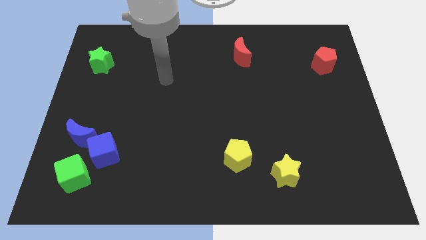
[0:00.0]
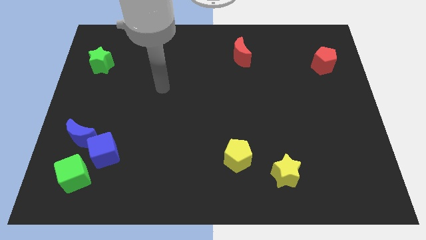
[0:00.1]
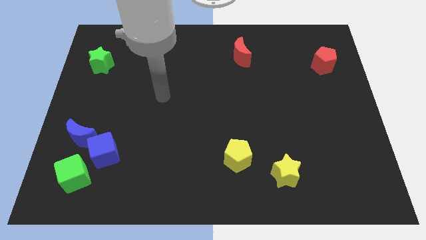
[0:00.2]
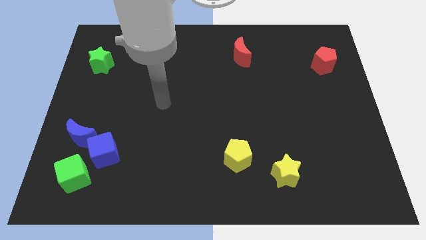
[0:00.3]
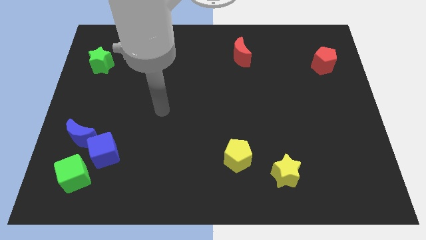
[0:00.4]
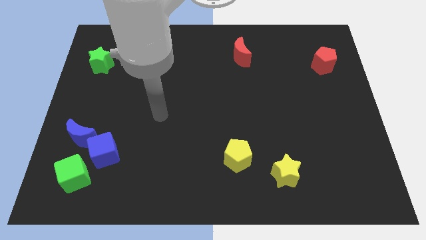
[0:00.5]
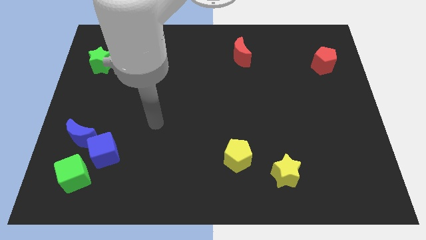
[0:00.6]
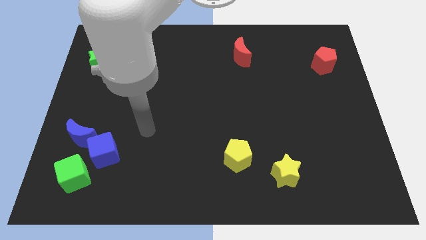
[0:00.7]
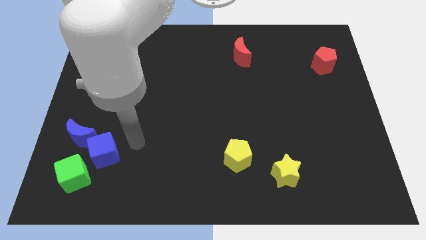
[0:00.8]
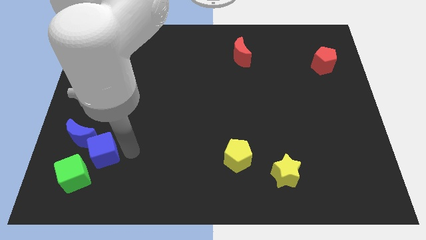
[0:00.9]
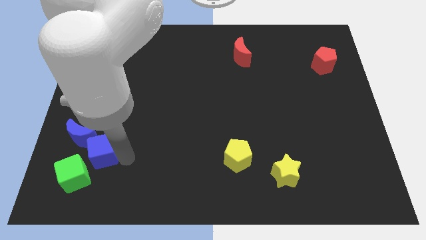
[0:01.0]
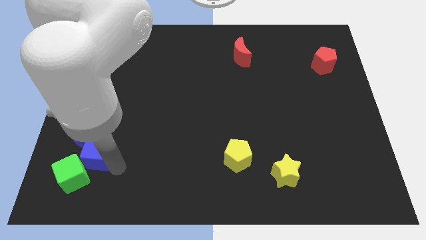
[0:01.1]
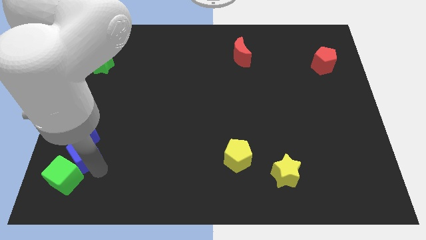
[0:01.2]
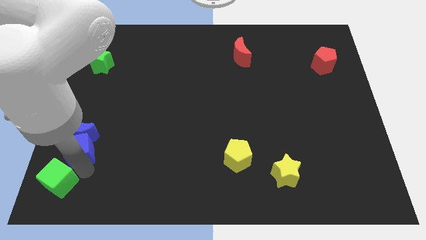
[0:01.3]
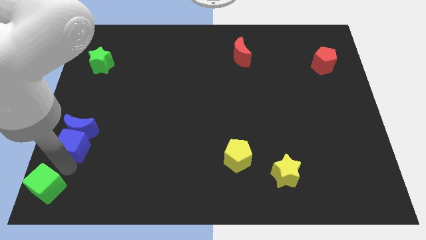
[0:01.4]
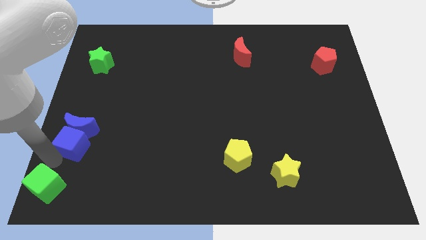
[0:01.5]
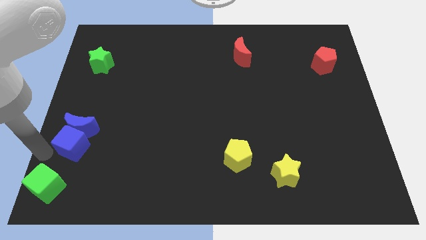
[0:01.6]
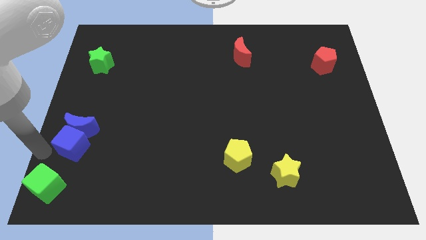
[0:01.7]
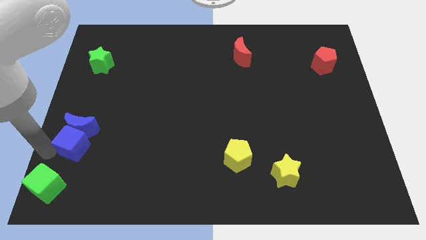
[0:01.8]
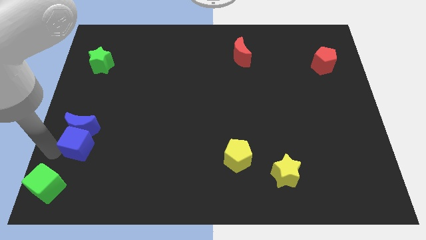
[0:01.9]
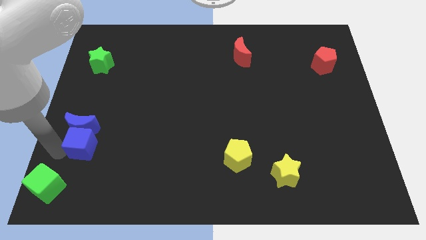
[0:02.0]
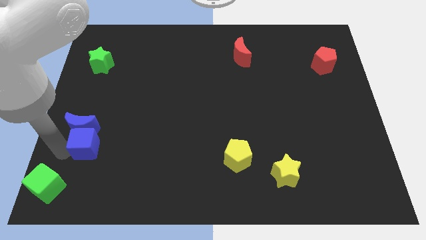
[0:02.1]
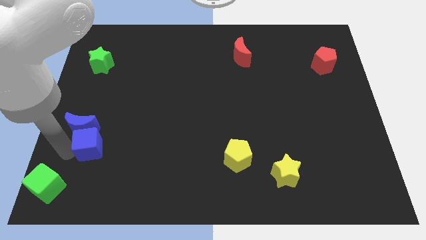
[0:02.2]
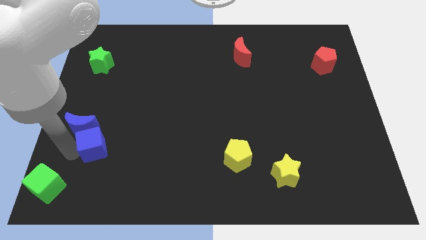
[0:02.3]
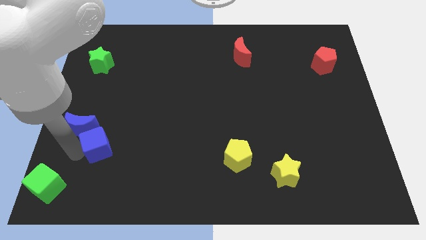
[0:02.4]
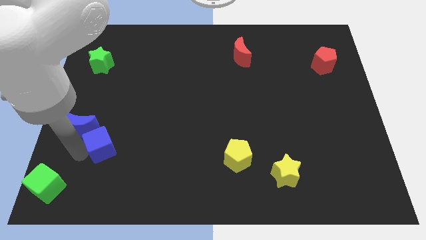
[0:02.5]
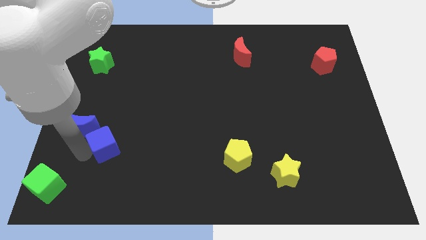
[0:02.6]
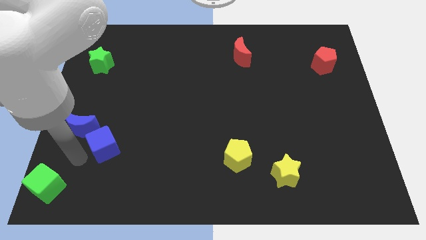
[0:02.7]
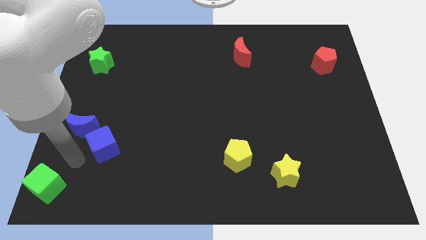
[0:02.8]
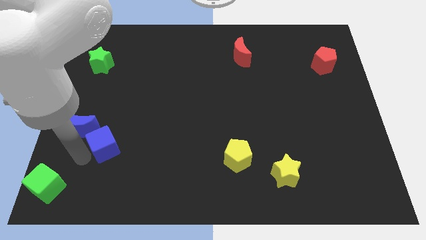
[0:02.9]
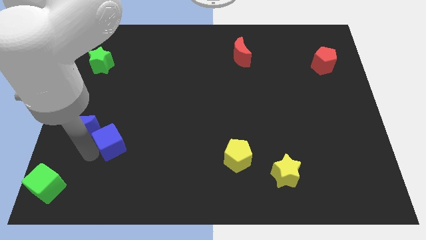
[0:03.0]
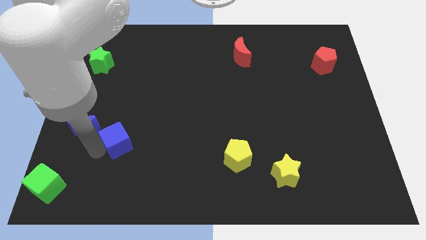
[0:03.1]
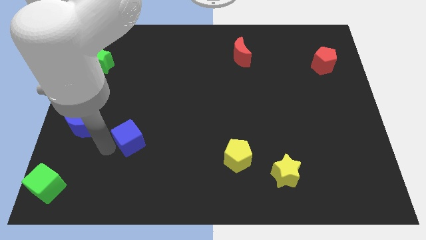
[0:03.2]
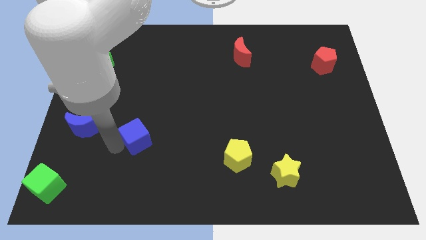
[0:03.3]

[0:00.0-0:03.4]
slide the blue cube diagonally up and right a little

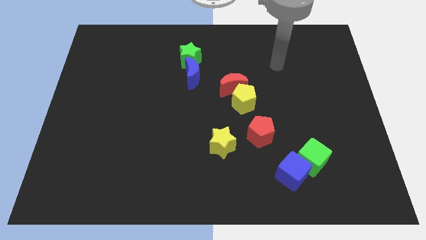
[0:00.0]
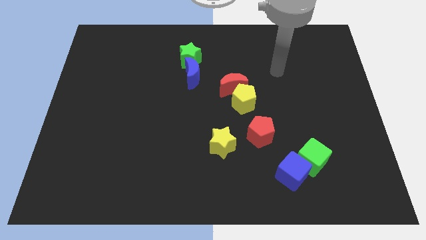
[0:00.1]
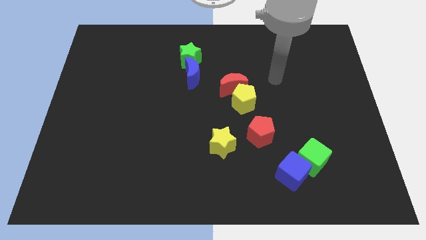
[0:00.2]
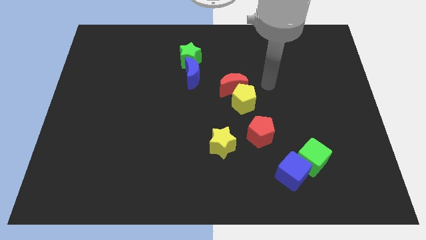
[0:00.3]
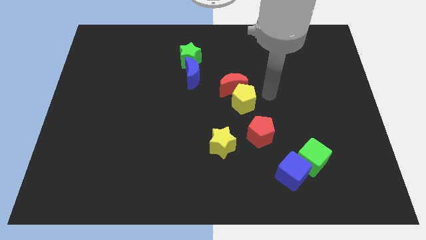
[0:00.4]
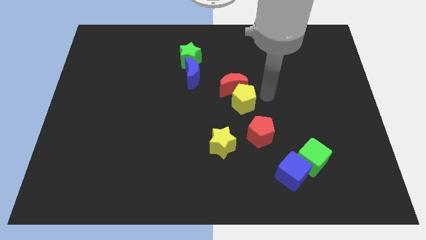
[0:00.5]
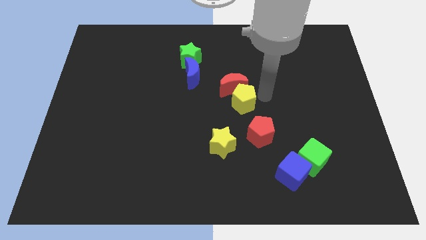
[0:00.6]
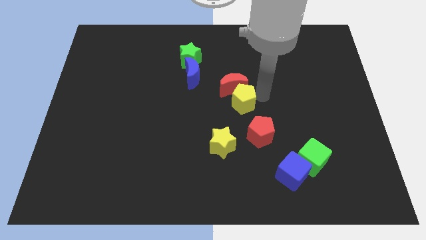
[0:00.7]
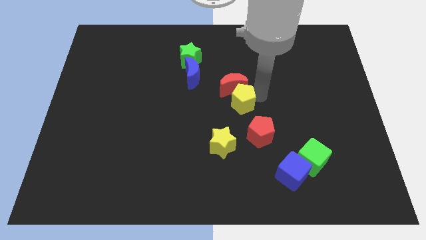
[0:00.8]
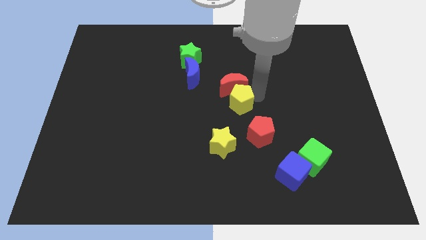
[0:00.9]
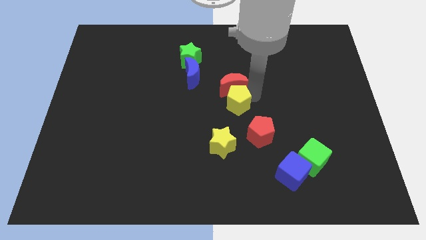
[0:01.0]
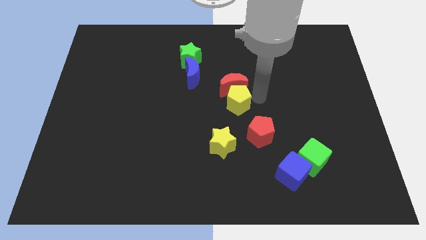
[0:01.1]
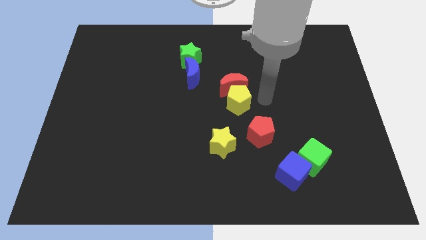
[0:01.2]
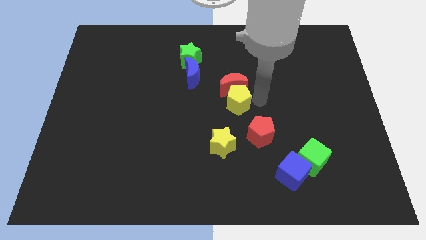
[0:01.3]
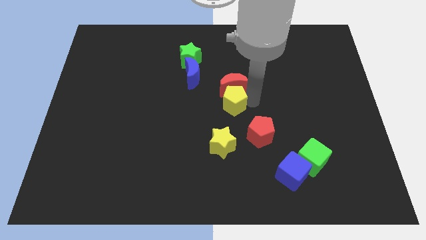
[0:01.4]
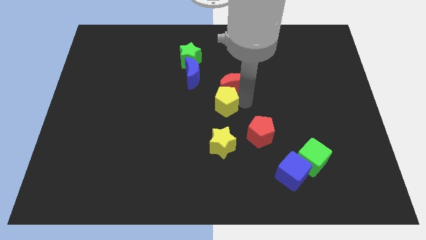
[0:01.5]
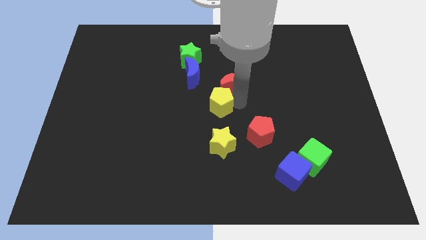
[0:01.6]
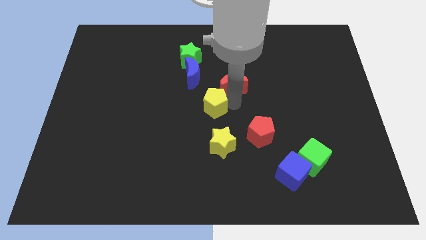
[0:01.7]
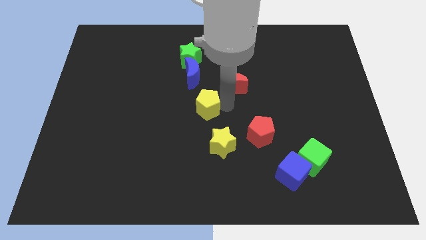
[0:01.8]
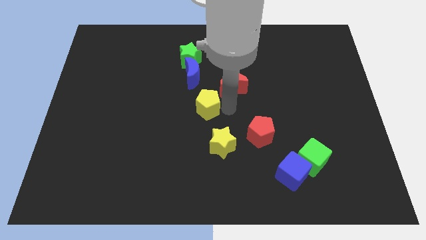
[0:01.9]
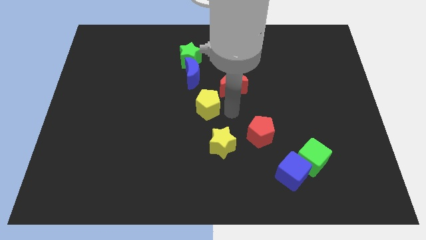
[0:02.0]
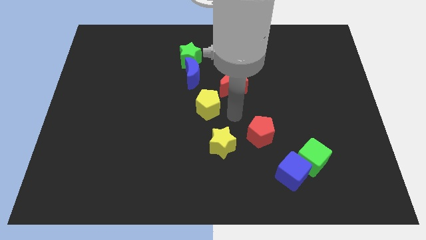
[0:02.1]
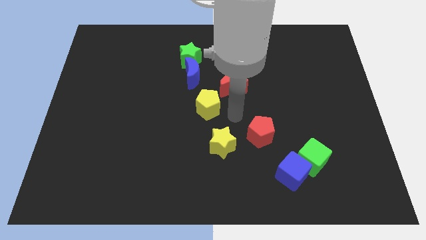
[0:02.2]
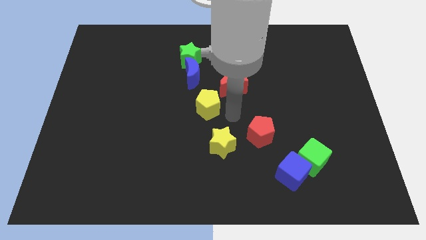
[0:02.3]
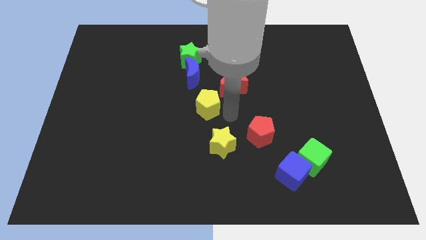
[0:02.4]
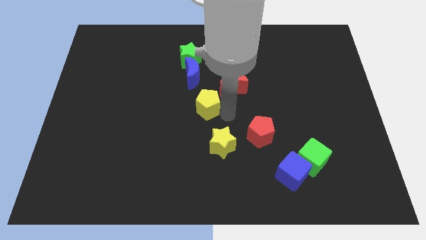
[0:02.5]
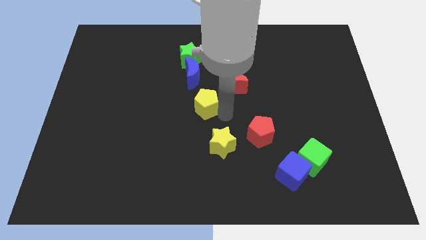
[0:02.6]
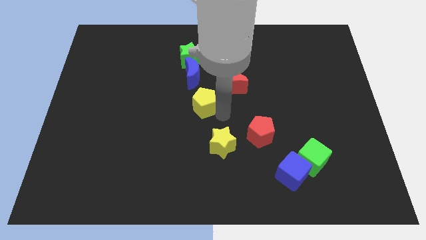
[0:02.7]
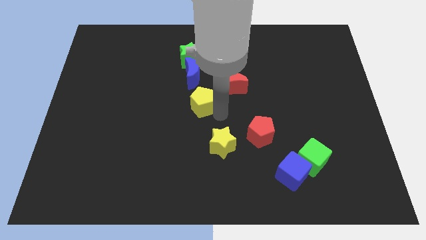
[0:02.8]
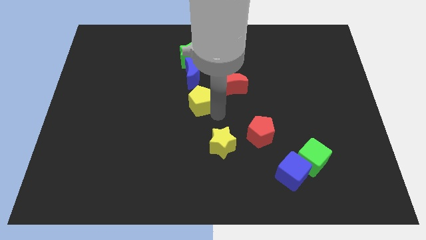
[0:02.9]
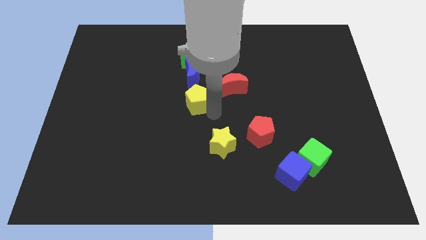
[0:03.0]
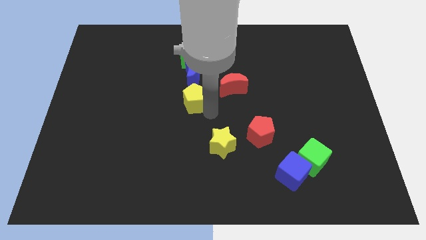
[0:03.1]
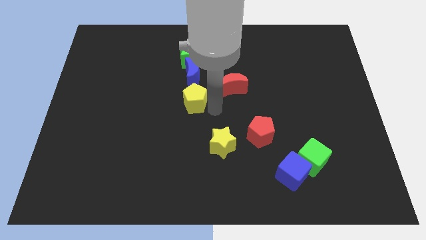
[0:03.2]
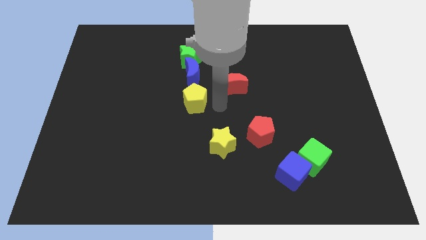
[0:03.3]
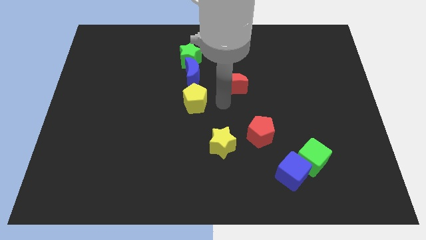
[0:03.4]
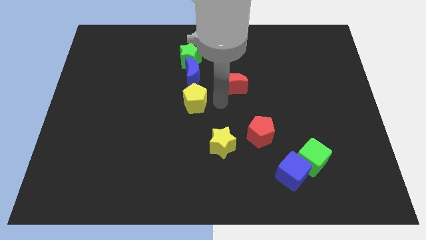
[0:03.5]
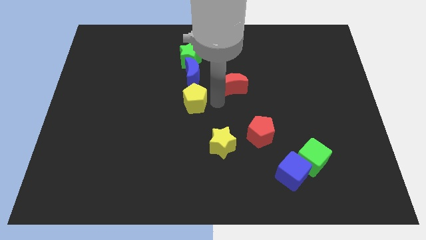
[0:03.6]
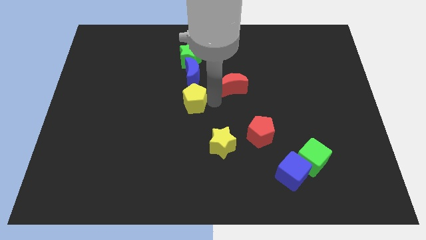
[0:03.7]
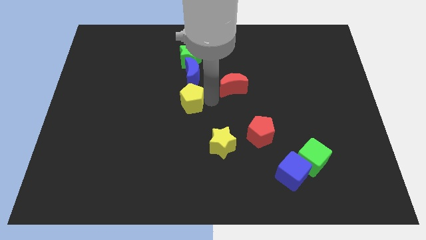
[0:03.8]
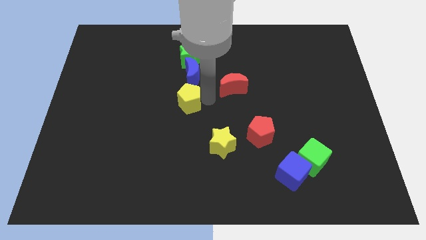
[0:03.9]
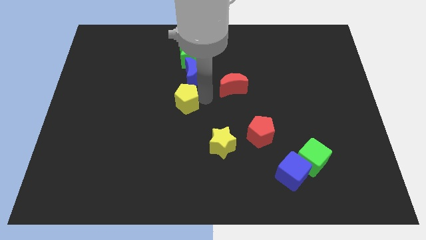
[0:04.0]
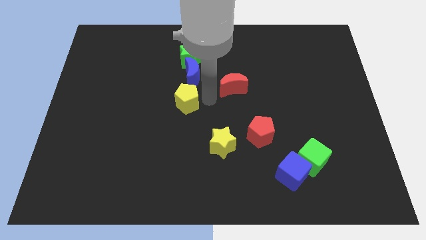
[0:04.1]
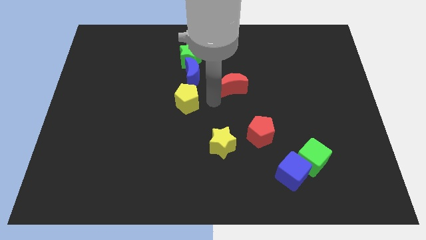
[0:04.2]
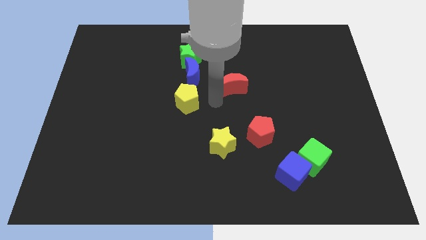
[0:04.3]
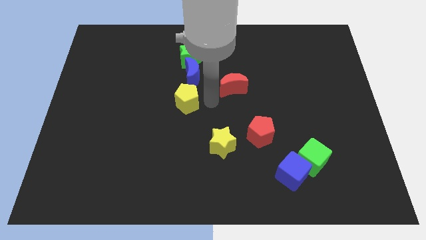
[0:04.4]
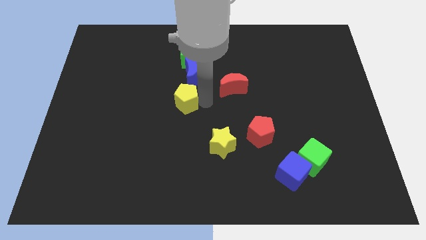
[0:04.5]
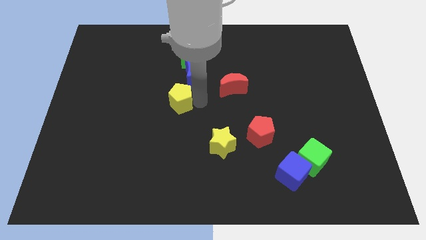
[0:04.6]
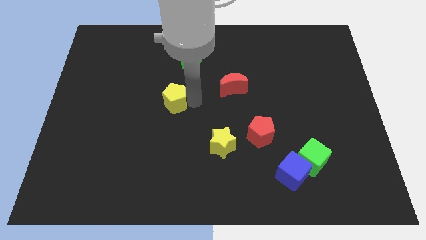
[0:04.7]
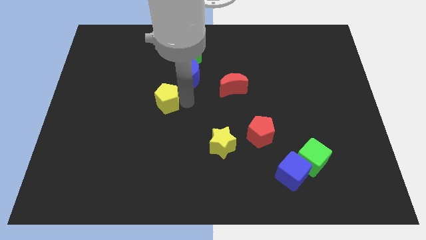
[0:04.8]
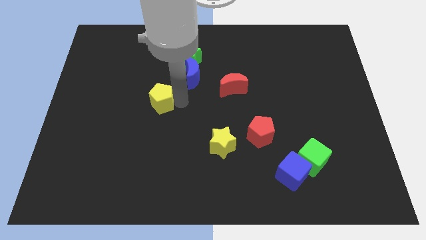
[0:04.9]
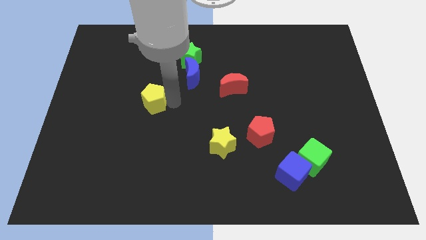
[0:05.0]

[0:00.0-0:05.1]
move the yellow pentagon left

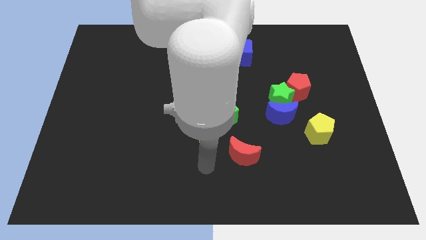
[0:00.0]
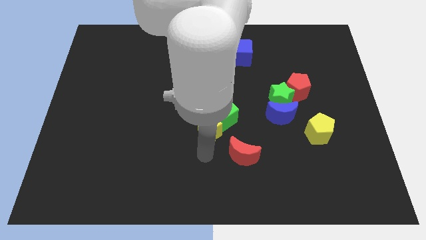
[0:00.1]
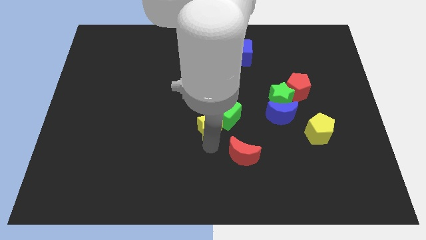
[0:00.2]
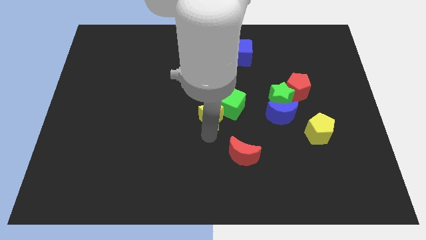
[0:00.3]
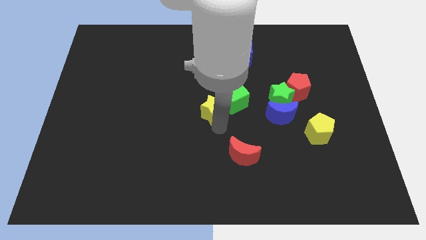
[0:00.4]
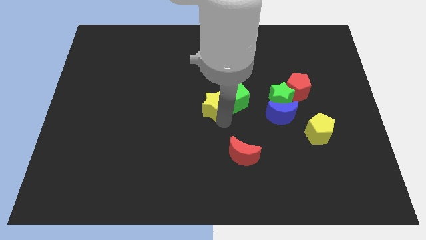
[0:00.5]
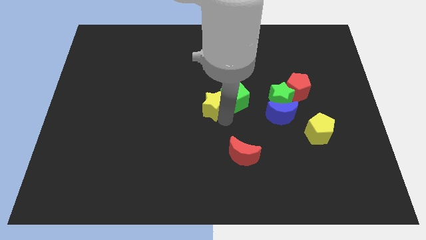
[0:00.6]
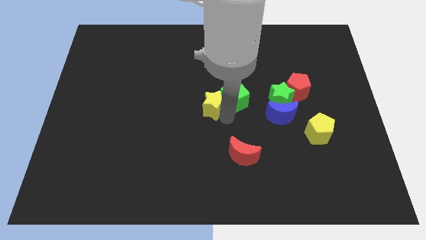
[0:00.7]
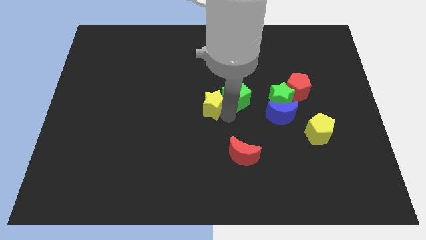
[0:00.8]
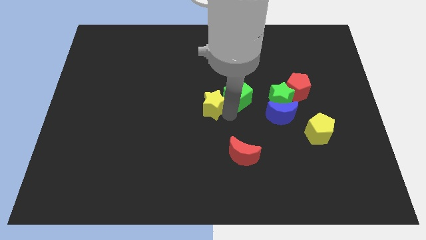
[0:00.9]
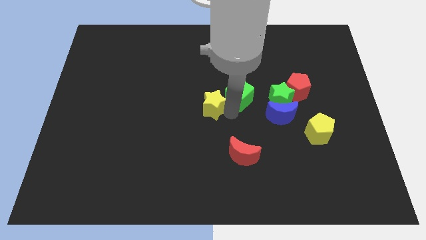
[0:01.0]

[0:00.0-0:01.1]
push the green cube diagonally upwards and to the right slightly
